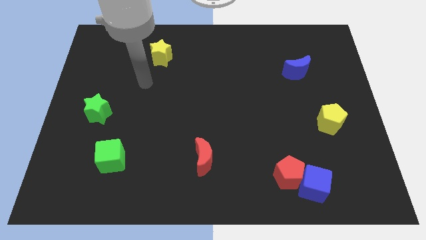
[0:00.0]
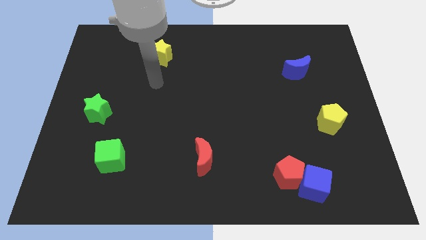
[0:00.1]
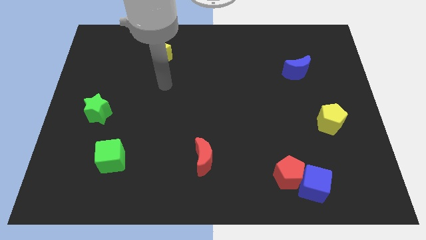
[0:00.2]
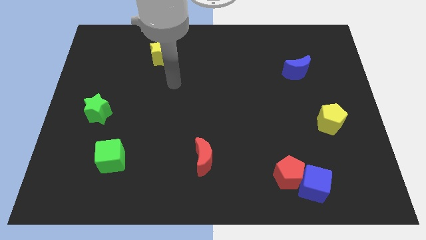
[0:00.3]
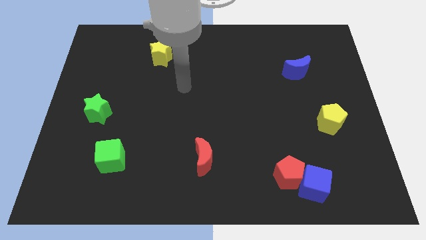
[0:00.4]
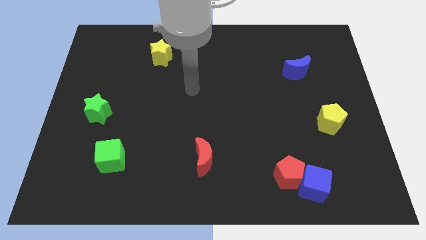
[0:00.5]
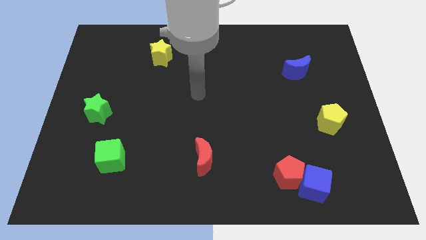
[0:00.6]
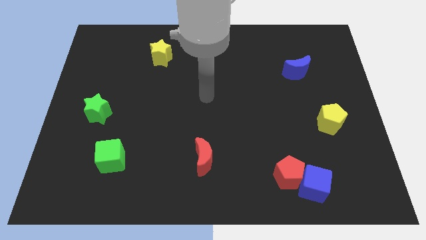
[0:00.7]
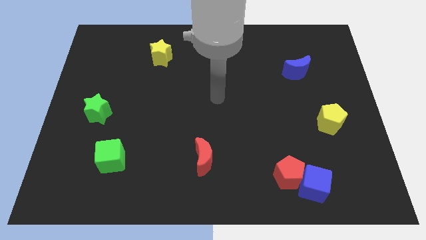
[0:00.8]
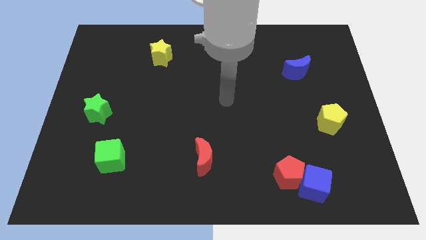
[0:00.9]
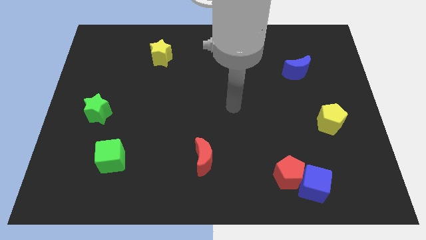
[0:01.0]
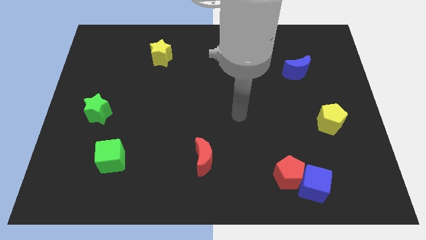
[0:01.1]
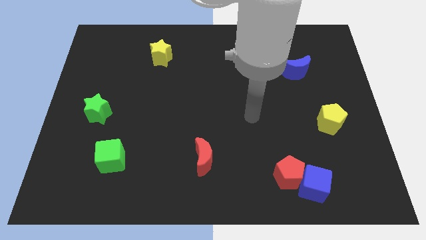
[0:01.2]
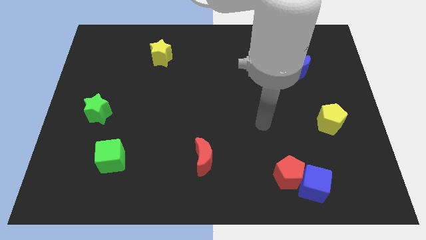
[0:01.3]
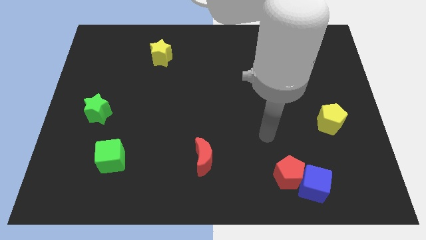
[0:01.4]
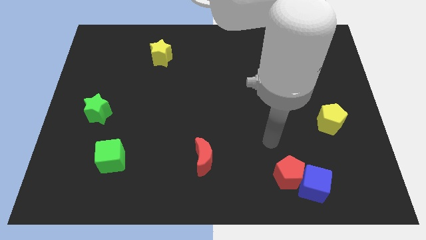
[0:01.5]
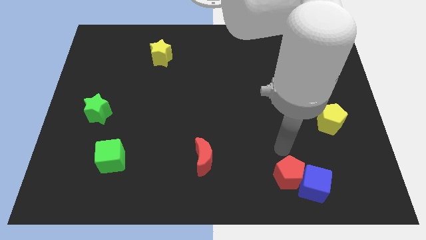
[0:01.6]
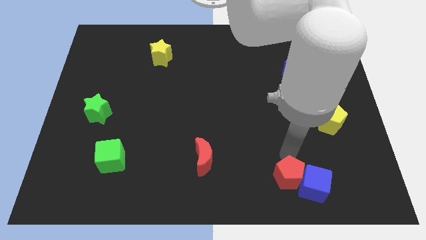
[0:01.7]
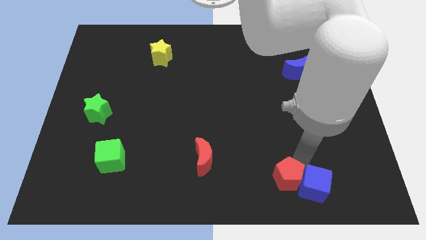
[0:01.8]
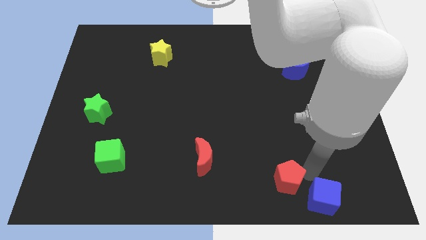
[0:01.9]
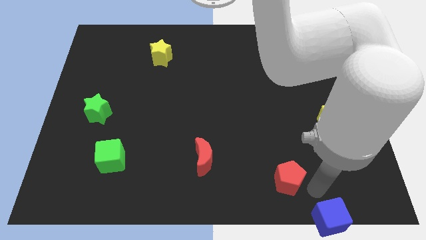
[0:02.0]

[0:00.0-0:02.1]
move the red pentagon away from the blue cube

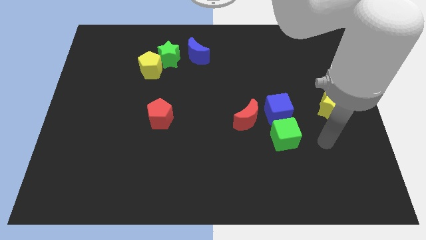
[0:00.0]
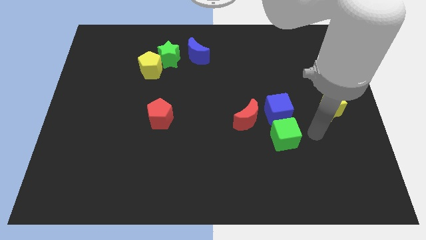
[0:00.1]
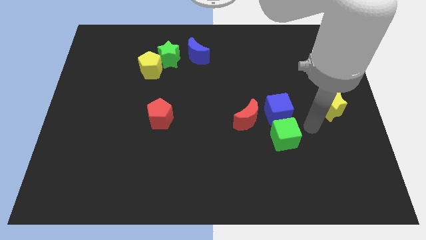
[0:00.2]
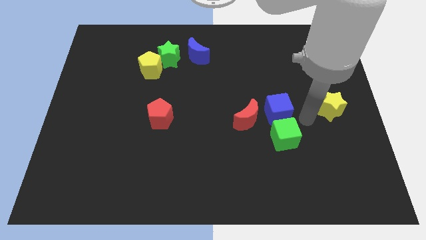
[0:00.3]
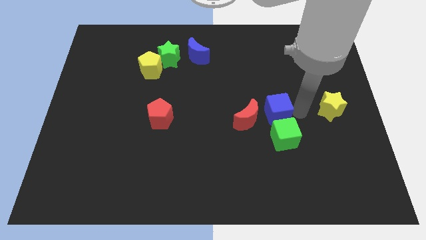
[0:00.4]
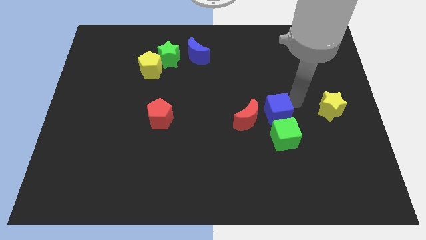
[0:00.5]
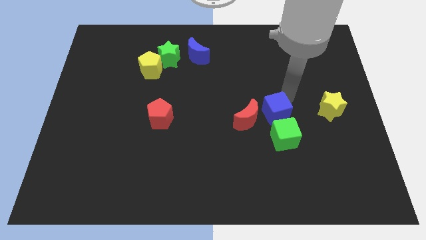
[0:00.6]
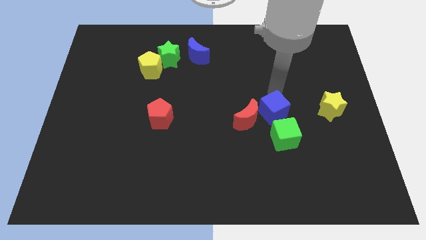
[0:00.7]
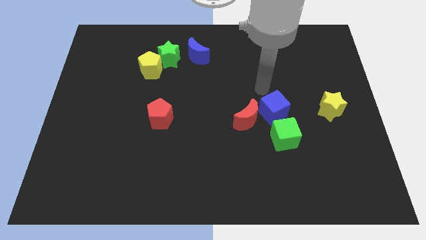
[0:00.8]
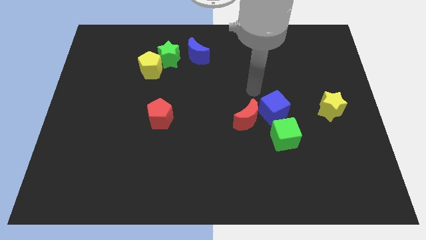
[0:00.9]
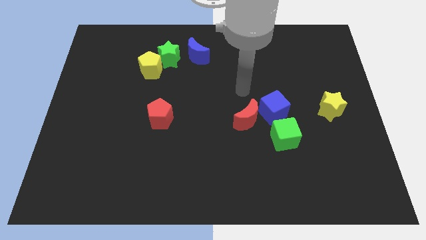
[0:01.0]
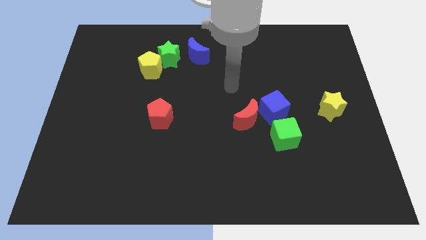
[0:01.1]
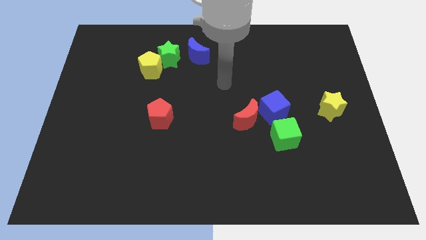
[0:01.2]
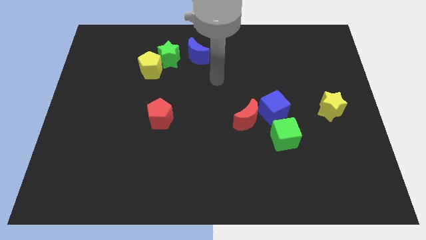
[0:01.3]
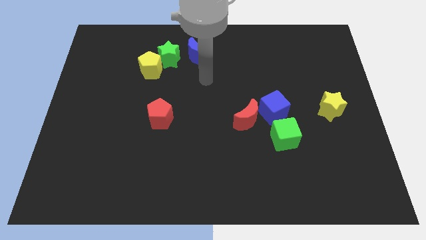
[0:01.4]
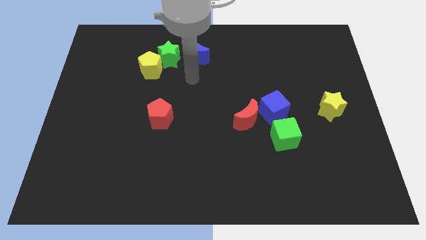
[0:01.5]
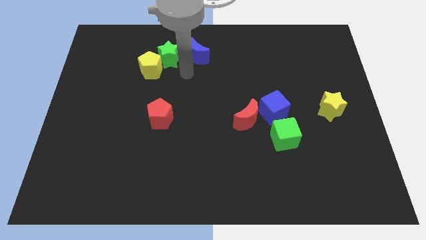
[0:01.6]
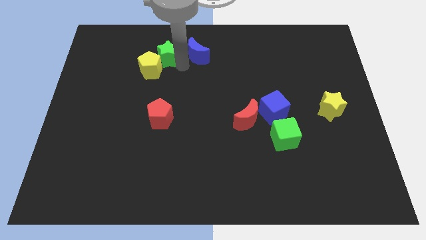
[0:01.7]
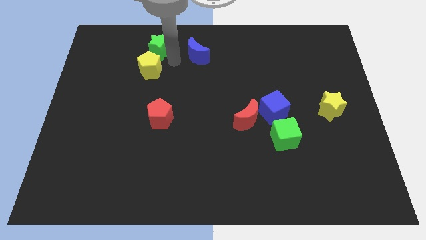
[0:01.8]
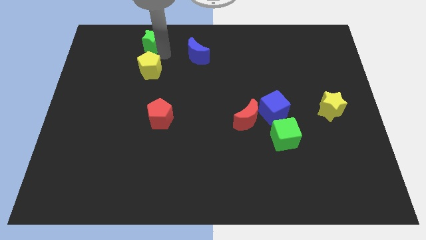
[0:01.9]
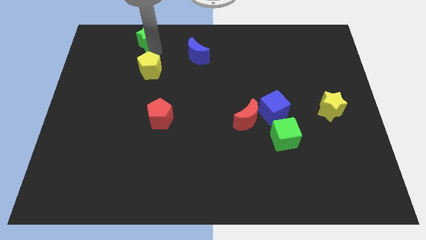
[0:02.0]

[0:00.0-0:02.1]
separate the yellow pentagon from the green star

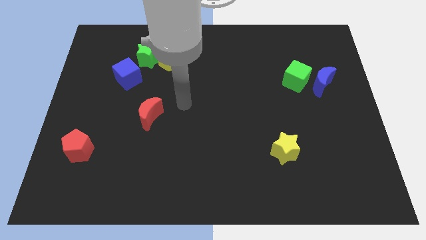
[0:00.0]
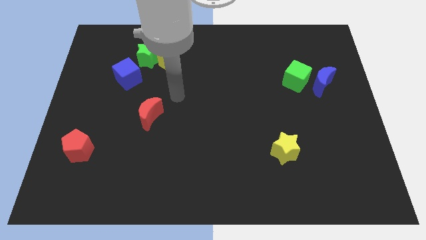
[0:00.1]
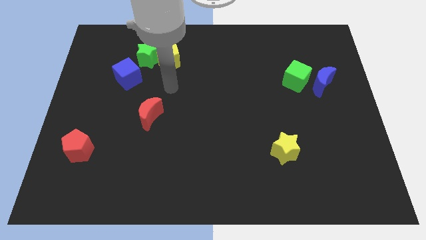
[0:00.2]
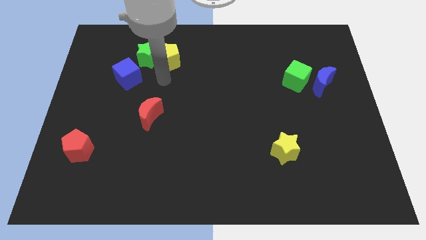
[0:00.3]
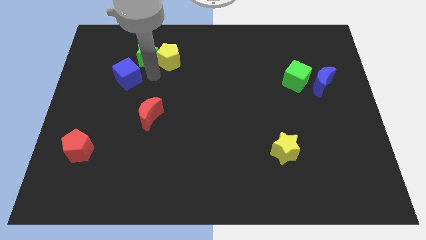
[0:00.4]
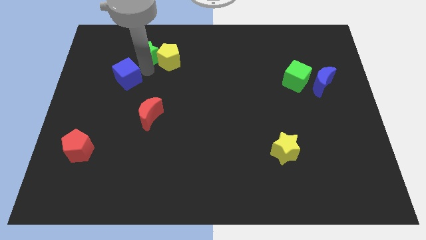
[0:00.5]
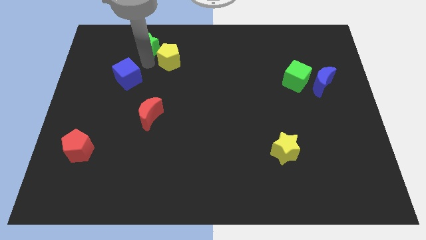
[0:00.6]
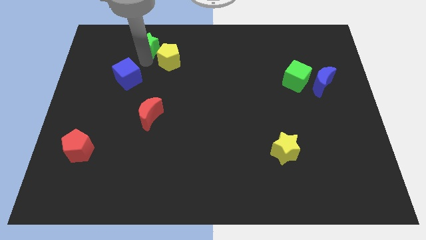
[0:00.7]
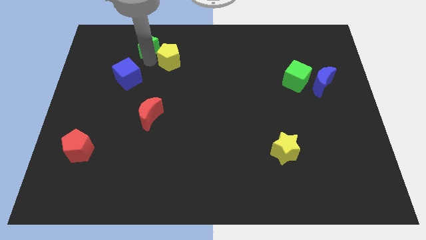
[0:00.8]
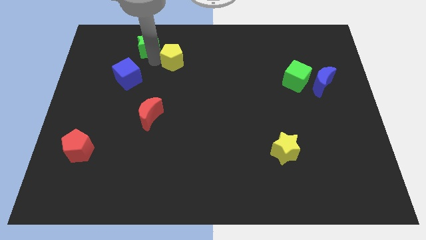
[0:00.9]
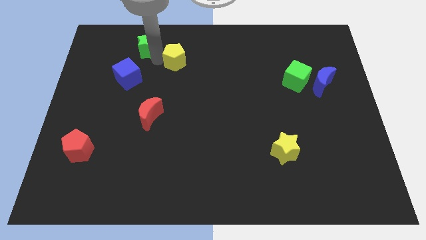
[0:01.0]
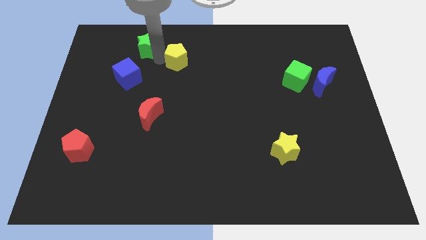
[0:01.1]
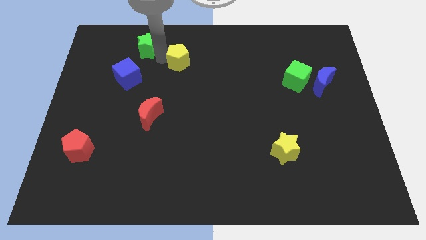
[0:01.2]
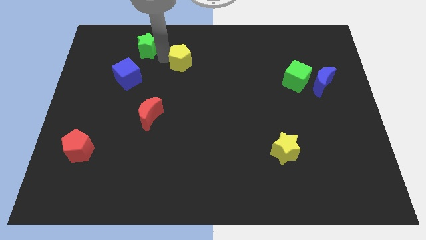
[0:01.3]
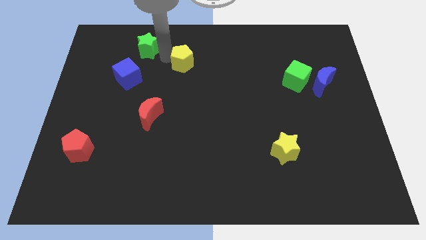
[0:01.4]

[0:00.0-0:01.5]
move the yellow pentagon away from the green star

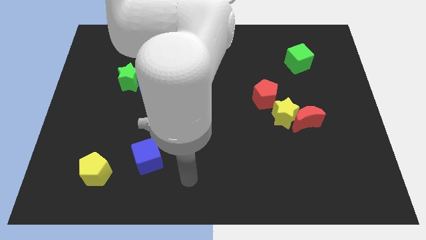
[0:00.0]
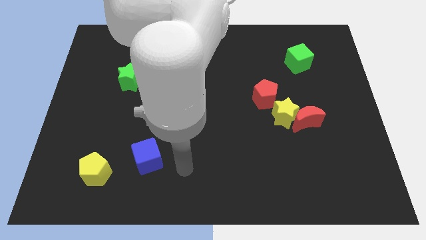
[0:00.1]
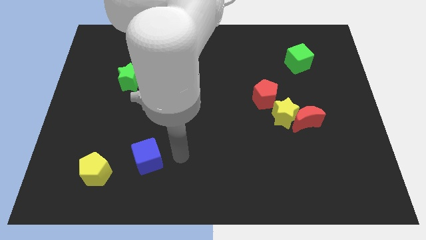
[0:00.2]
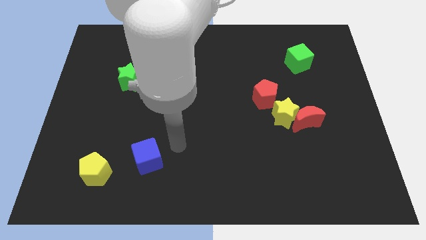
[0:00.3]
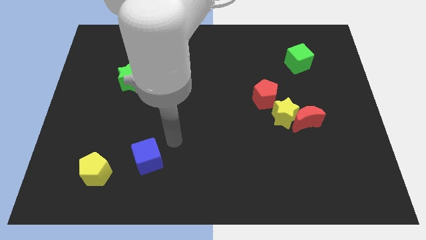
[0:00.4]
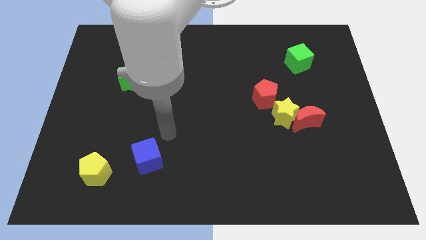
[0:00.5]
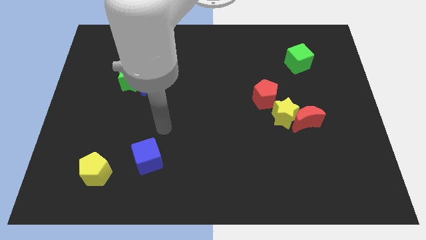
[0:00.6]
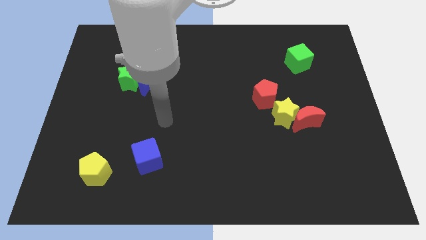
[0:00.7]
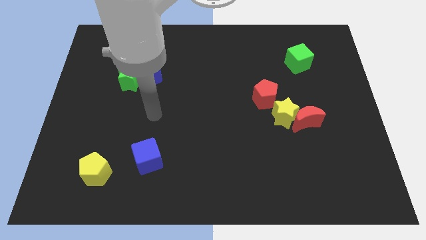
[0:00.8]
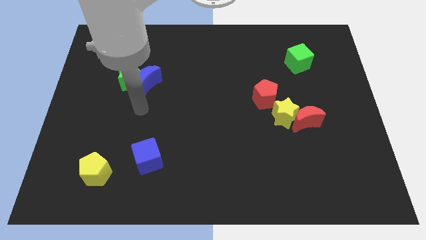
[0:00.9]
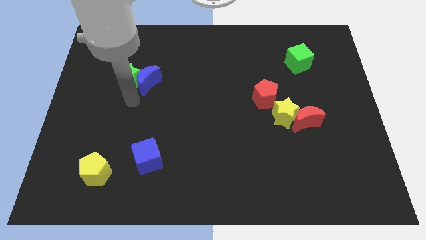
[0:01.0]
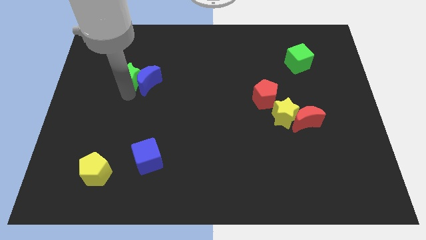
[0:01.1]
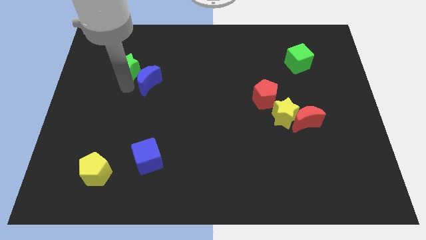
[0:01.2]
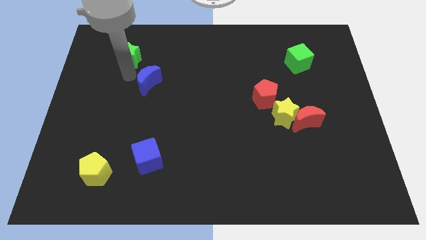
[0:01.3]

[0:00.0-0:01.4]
separate the blue moon from the green star

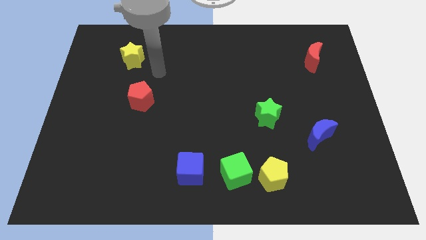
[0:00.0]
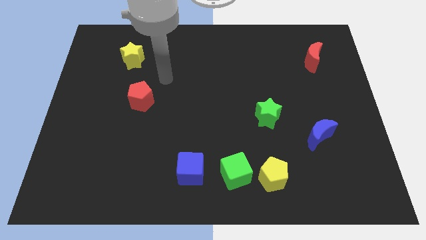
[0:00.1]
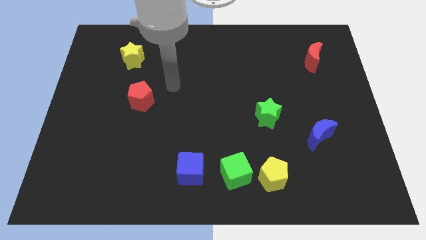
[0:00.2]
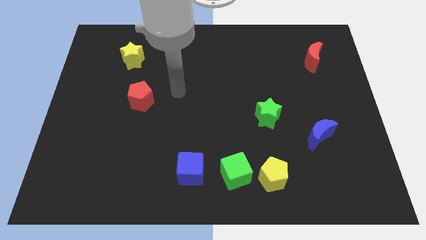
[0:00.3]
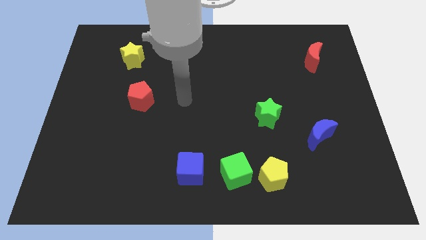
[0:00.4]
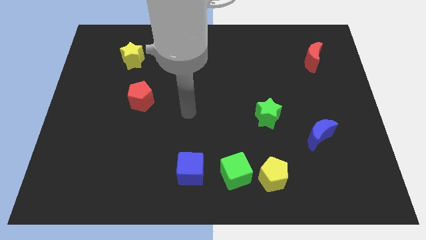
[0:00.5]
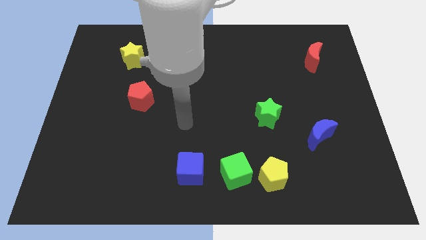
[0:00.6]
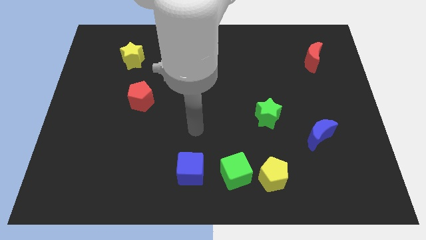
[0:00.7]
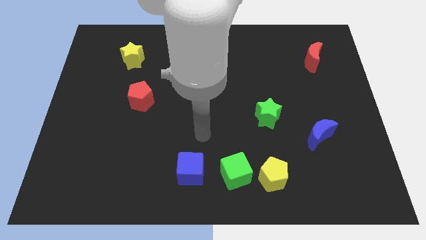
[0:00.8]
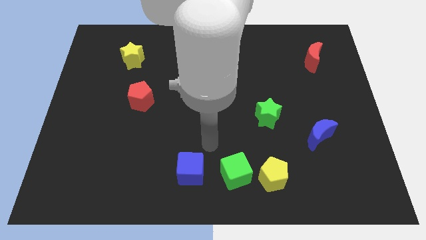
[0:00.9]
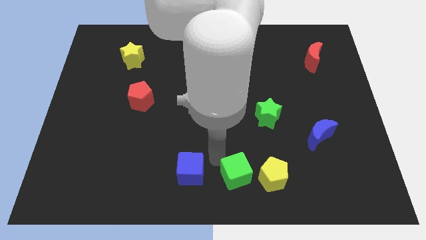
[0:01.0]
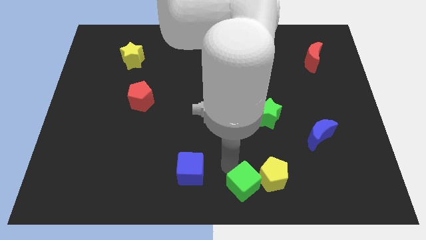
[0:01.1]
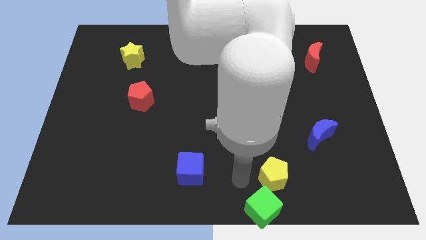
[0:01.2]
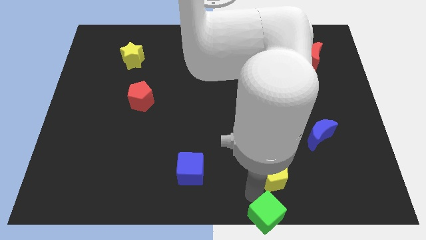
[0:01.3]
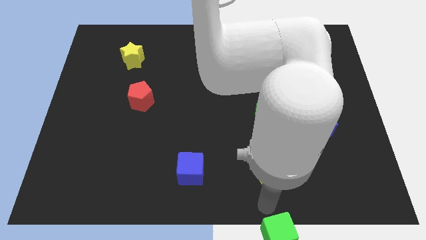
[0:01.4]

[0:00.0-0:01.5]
pull the yellow pentagon apart from the green cube

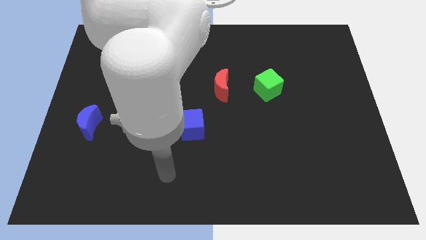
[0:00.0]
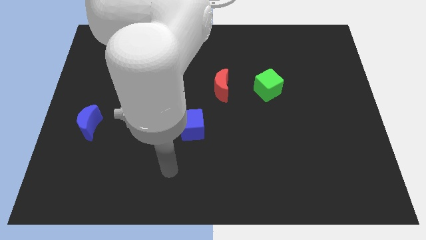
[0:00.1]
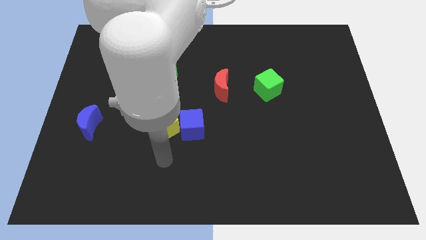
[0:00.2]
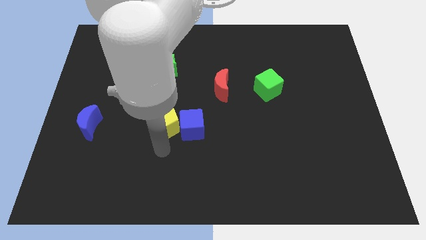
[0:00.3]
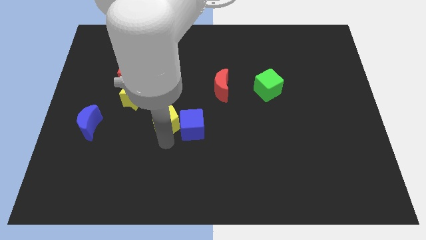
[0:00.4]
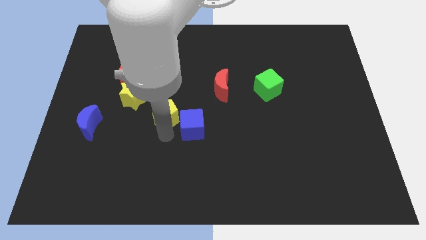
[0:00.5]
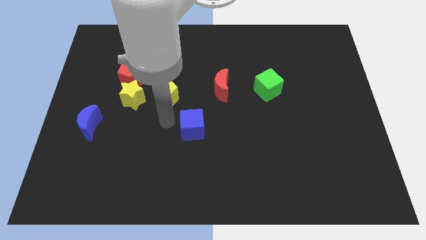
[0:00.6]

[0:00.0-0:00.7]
move the blue cube away from the yellow pentagon
